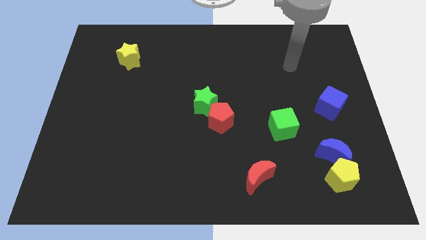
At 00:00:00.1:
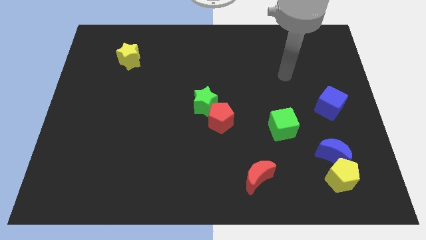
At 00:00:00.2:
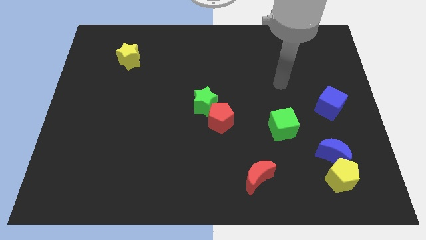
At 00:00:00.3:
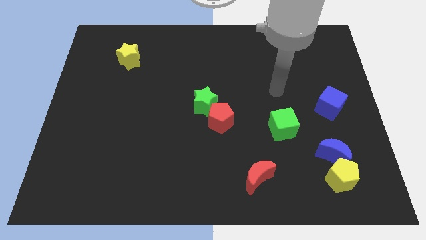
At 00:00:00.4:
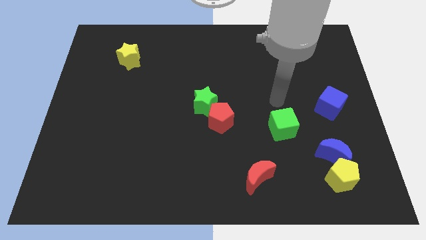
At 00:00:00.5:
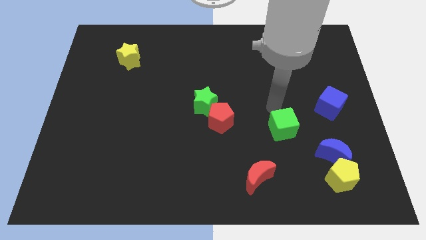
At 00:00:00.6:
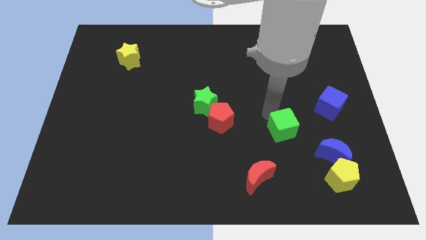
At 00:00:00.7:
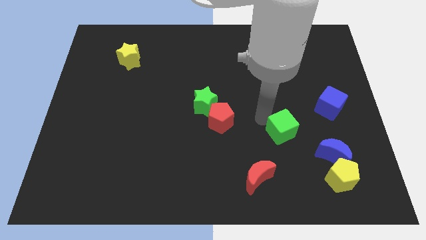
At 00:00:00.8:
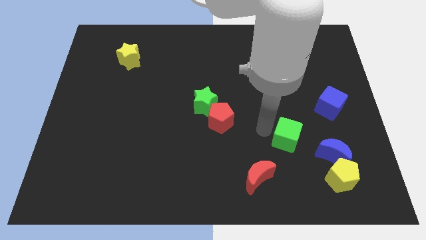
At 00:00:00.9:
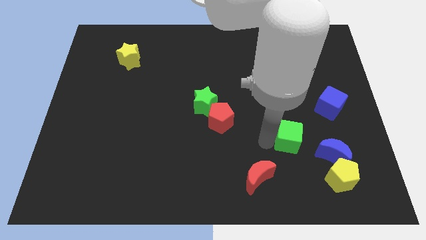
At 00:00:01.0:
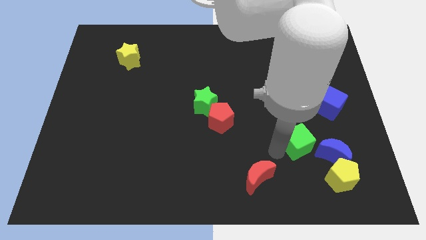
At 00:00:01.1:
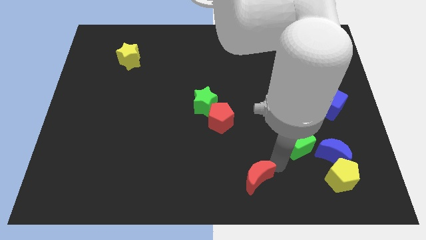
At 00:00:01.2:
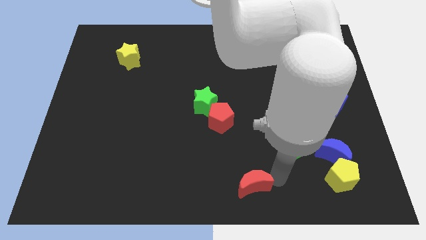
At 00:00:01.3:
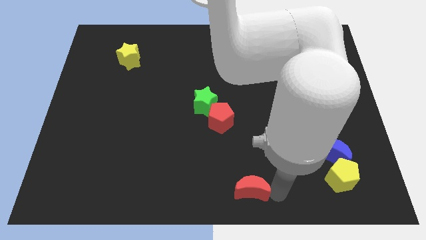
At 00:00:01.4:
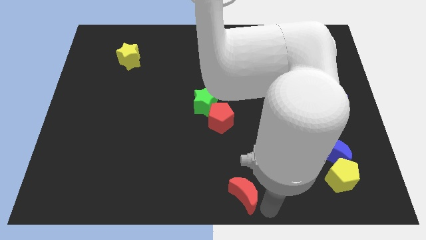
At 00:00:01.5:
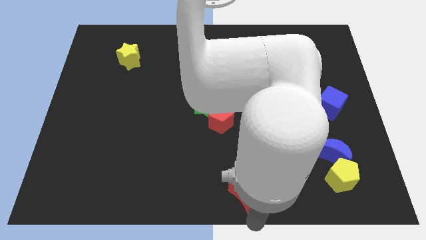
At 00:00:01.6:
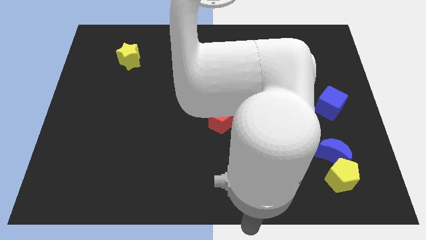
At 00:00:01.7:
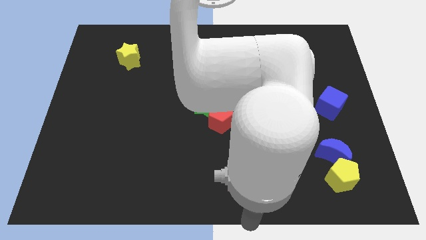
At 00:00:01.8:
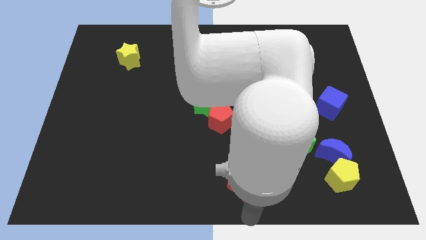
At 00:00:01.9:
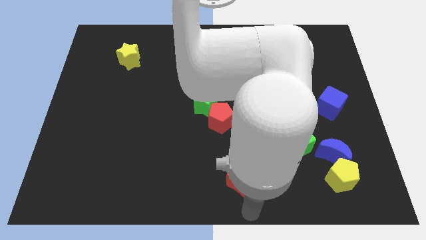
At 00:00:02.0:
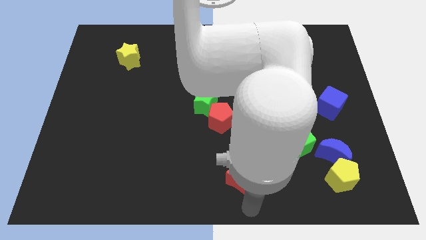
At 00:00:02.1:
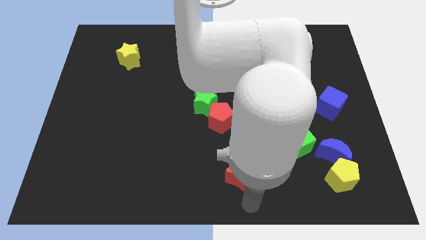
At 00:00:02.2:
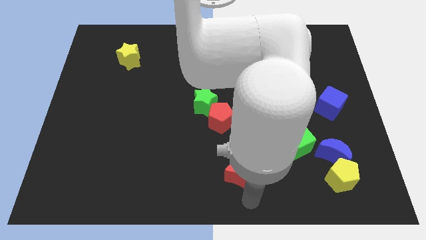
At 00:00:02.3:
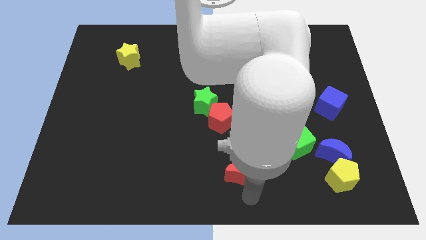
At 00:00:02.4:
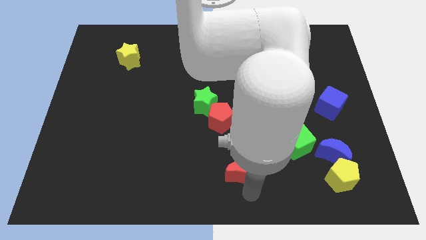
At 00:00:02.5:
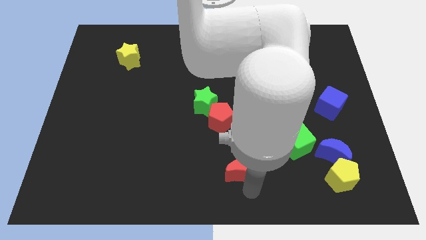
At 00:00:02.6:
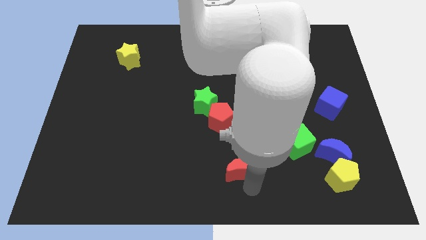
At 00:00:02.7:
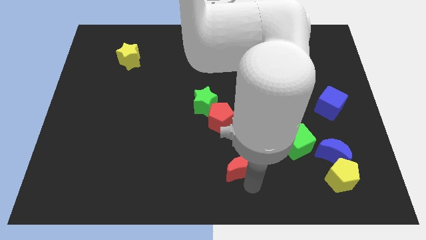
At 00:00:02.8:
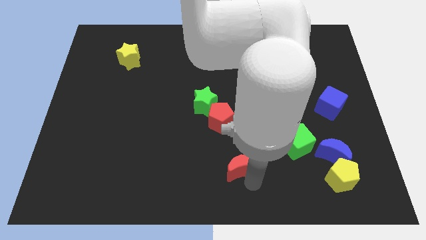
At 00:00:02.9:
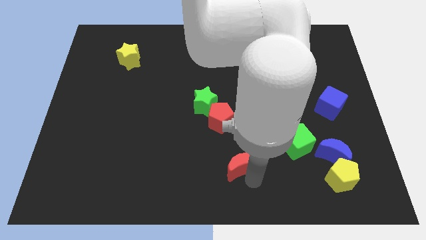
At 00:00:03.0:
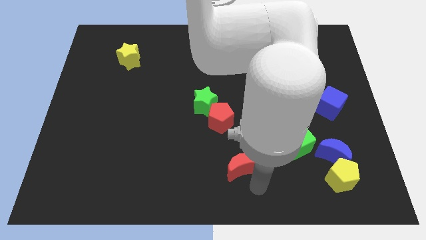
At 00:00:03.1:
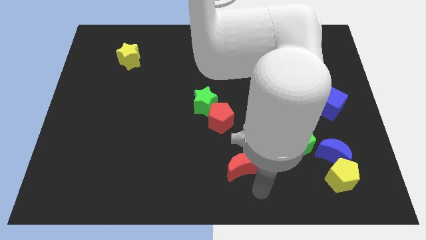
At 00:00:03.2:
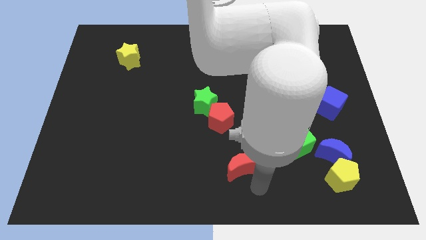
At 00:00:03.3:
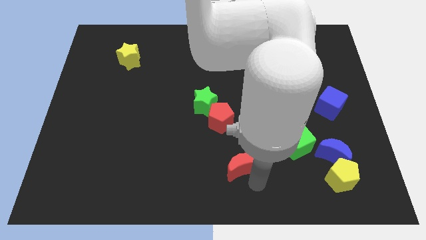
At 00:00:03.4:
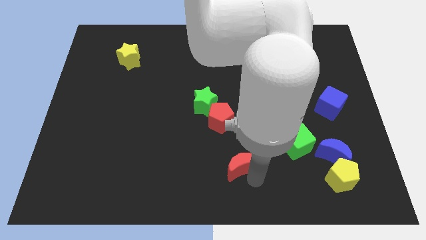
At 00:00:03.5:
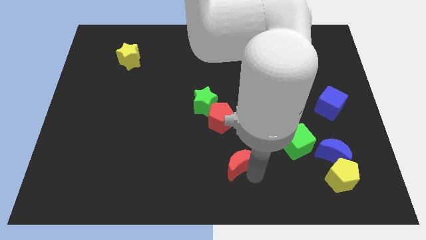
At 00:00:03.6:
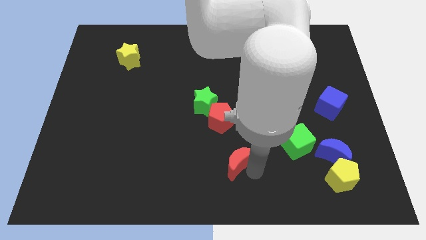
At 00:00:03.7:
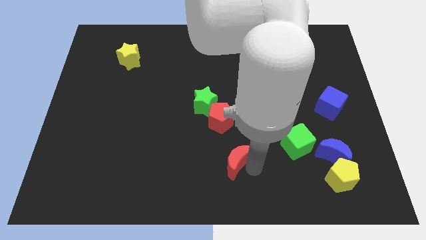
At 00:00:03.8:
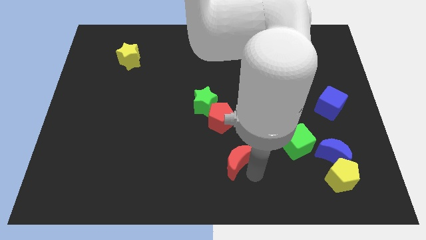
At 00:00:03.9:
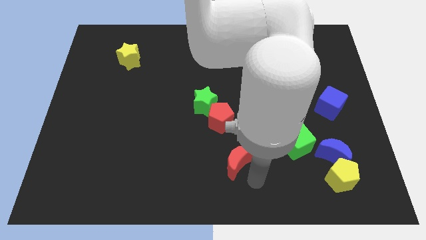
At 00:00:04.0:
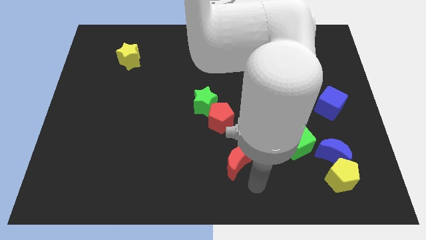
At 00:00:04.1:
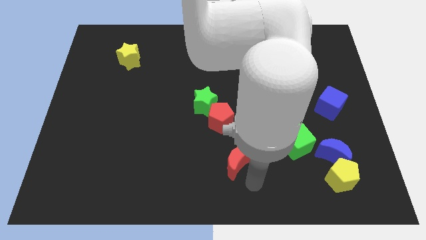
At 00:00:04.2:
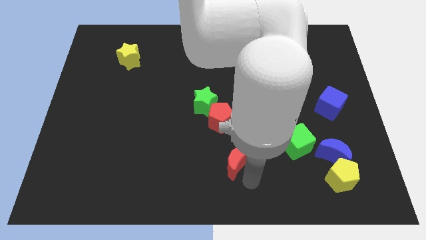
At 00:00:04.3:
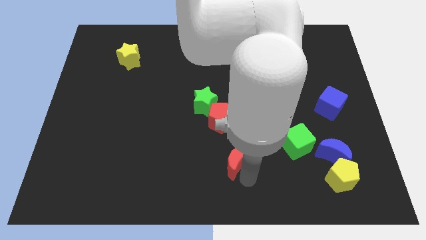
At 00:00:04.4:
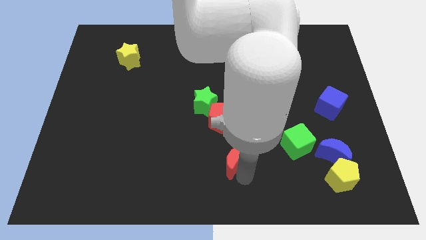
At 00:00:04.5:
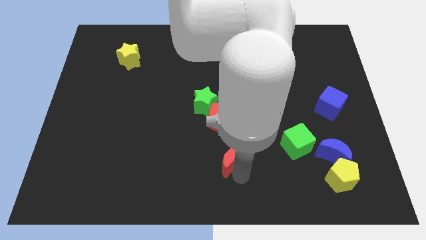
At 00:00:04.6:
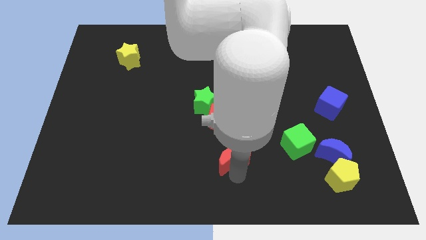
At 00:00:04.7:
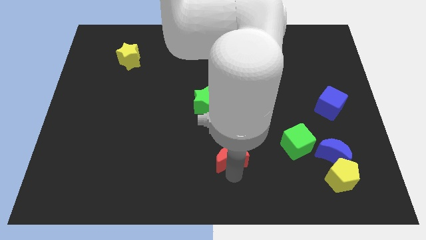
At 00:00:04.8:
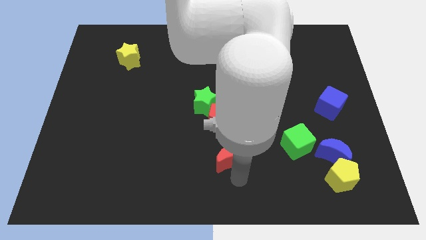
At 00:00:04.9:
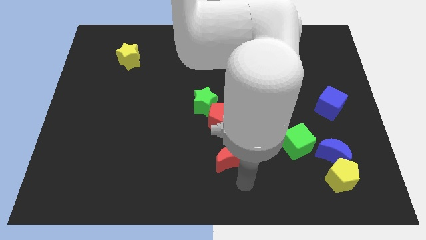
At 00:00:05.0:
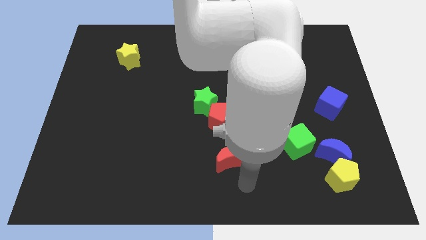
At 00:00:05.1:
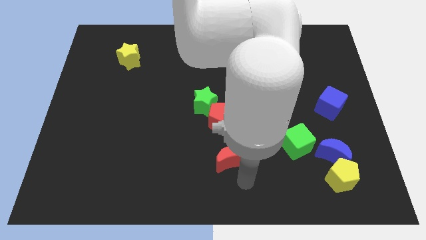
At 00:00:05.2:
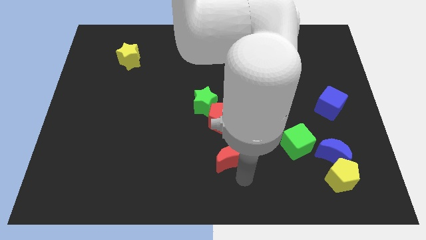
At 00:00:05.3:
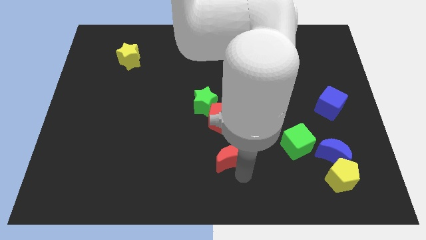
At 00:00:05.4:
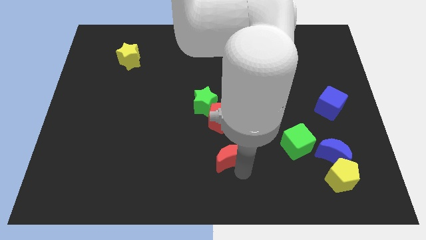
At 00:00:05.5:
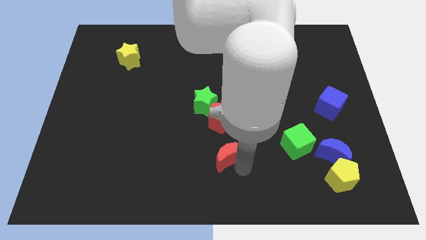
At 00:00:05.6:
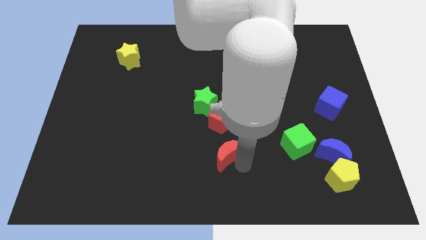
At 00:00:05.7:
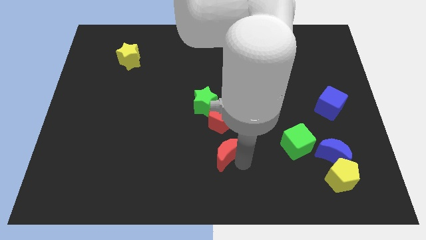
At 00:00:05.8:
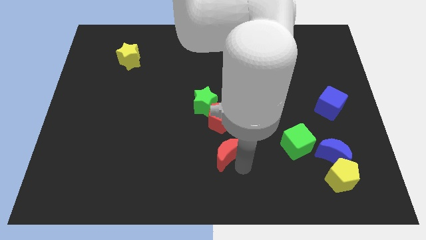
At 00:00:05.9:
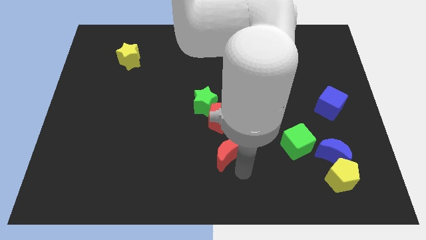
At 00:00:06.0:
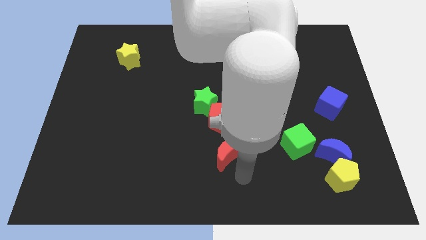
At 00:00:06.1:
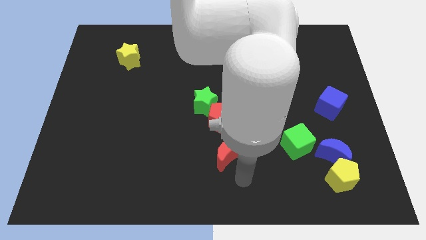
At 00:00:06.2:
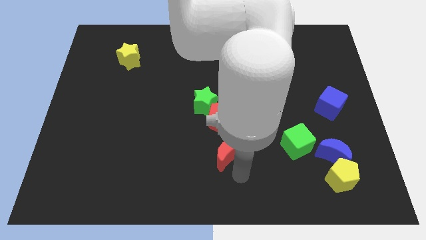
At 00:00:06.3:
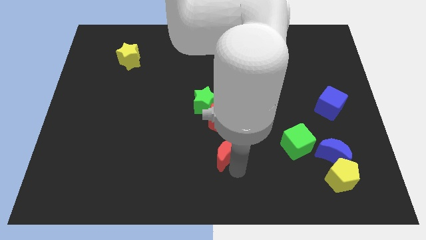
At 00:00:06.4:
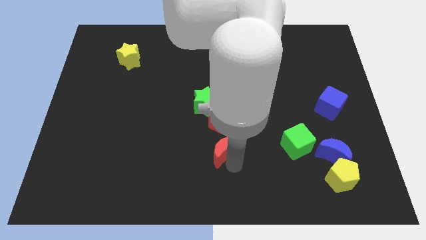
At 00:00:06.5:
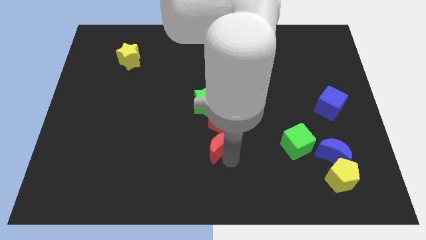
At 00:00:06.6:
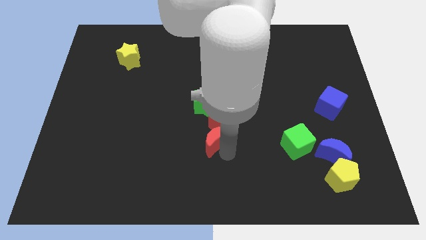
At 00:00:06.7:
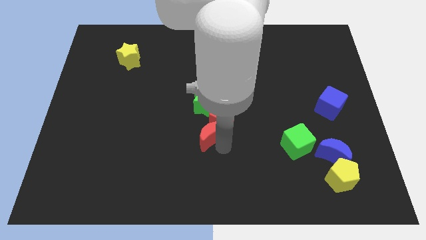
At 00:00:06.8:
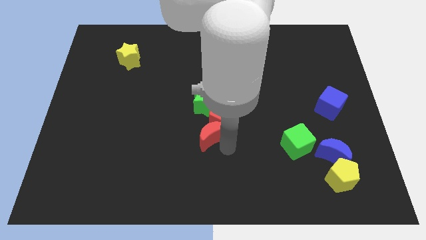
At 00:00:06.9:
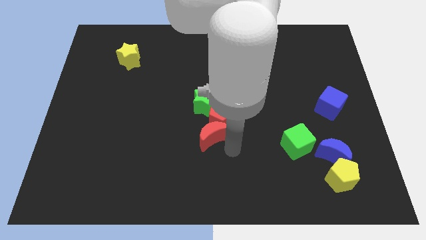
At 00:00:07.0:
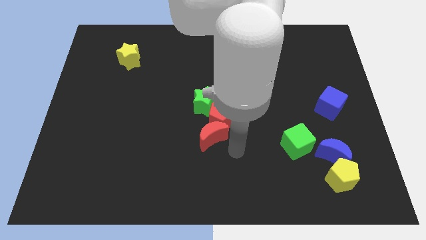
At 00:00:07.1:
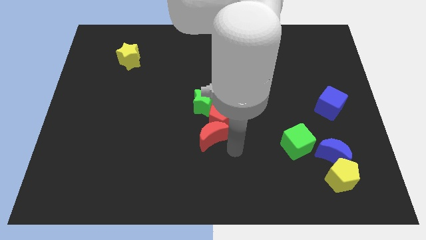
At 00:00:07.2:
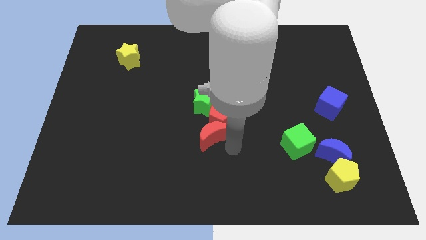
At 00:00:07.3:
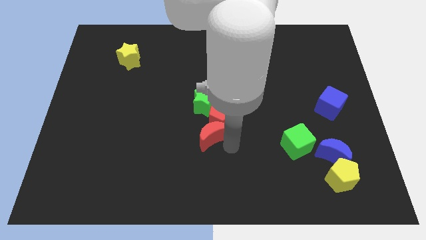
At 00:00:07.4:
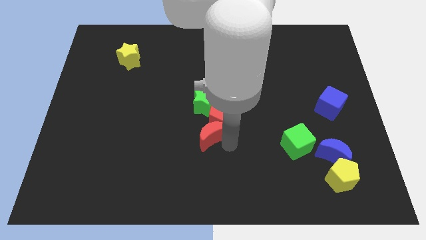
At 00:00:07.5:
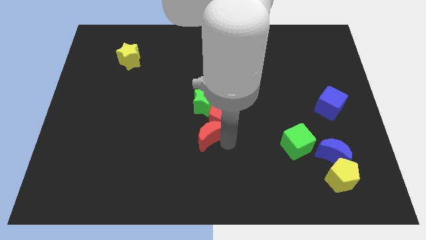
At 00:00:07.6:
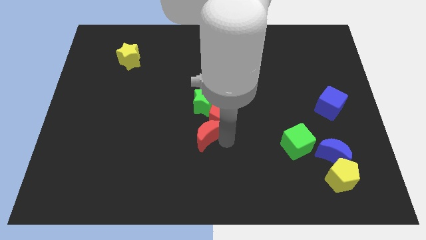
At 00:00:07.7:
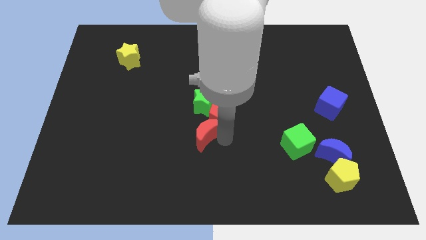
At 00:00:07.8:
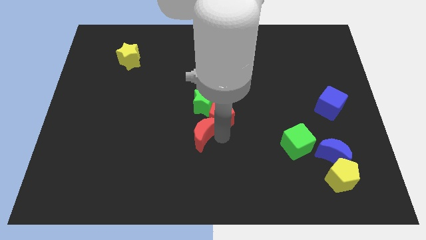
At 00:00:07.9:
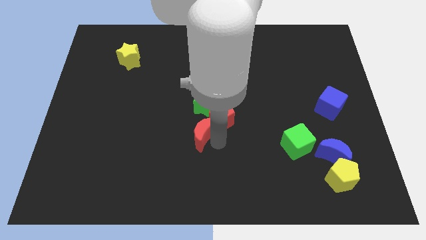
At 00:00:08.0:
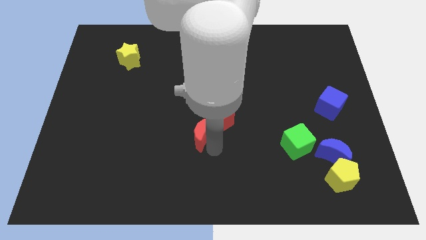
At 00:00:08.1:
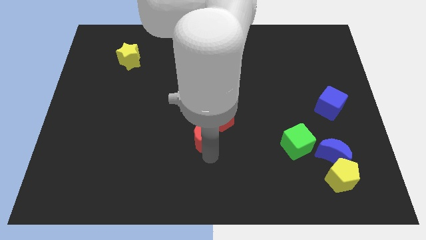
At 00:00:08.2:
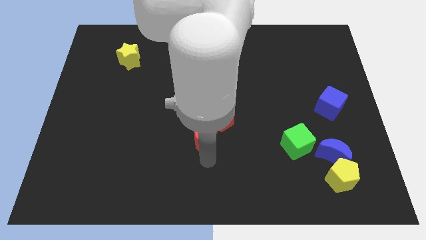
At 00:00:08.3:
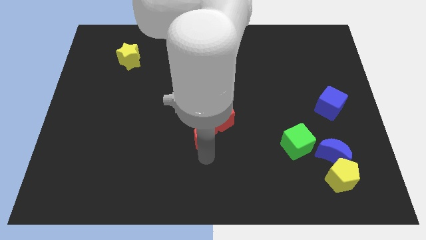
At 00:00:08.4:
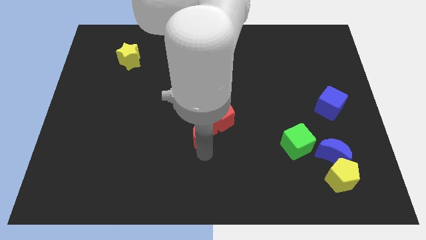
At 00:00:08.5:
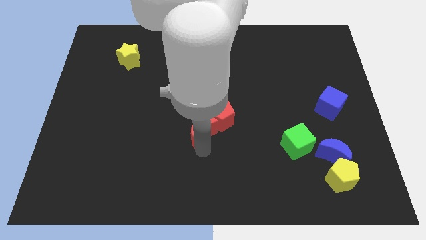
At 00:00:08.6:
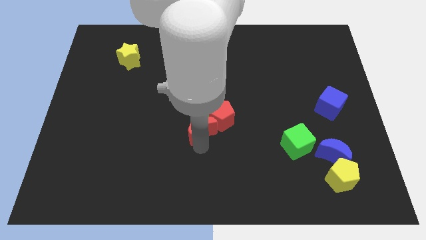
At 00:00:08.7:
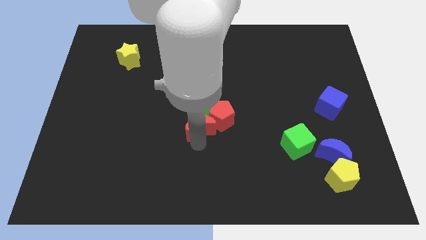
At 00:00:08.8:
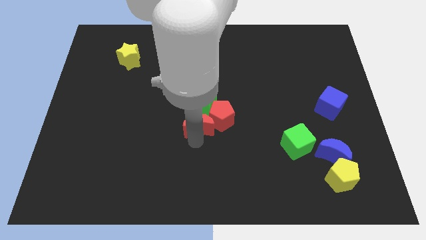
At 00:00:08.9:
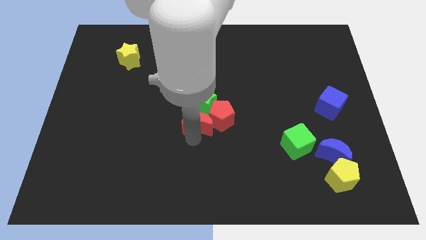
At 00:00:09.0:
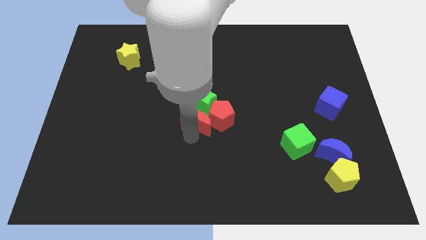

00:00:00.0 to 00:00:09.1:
move the red moon to the top left of the red pentagon
